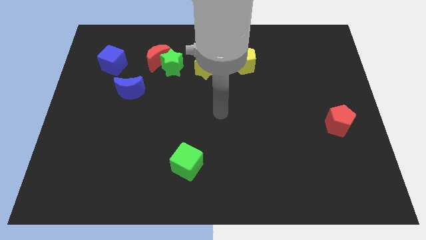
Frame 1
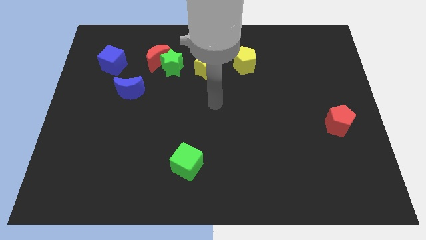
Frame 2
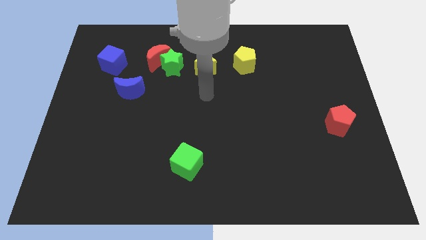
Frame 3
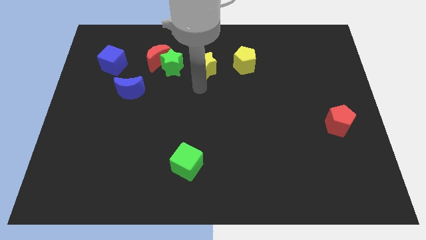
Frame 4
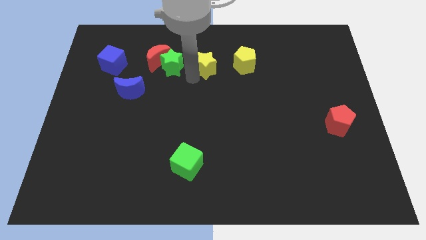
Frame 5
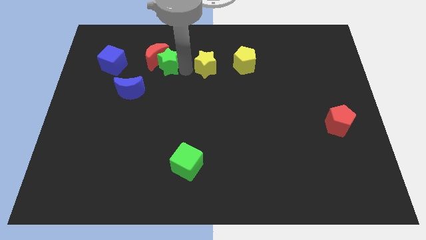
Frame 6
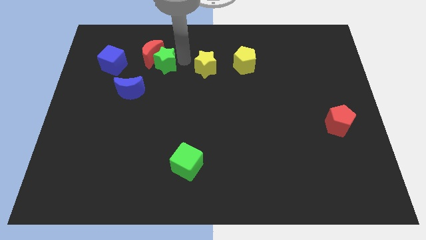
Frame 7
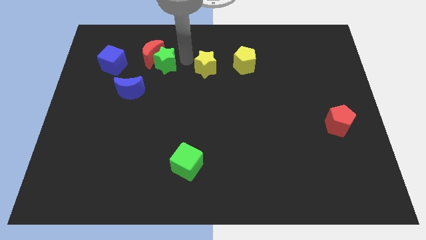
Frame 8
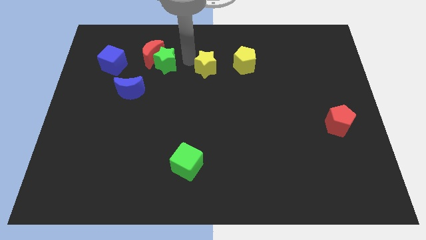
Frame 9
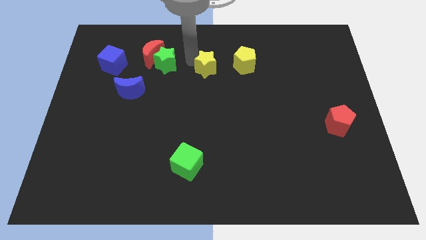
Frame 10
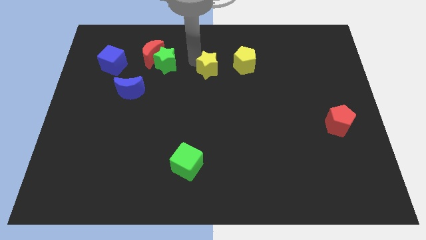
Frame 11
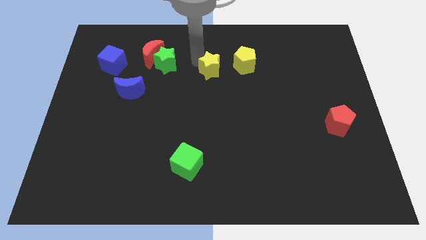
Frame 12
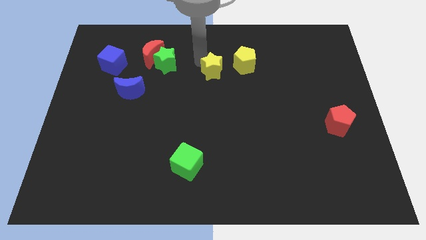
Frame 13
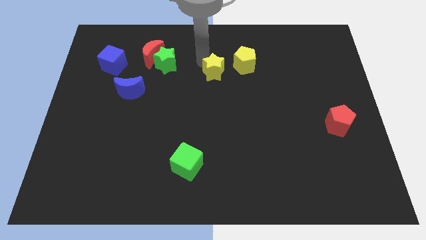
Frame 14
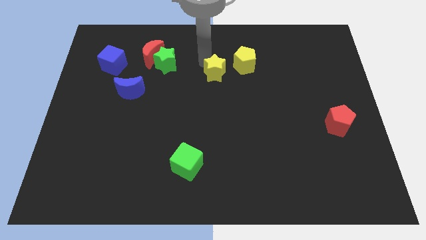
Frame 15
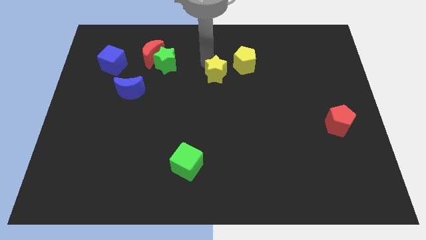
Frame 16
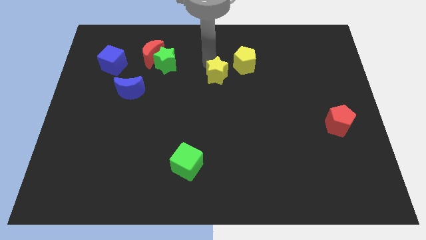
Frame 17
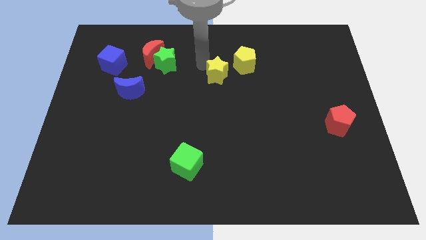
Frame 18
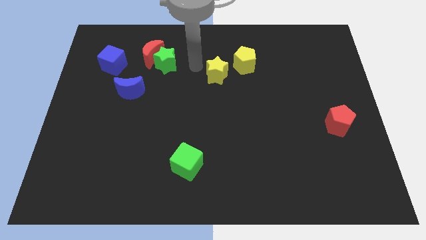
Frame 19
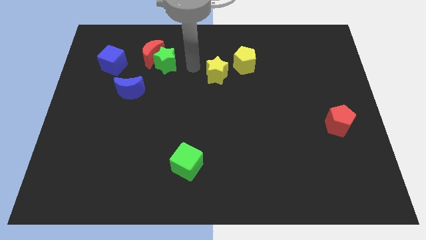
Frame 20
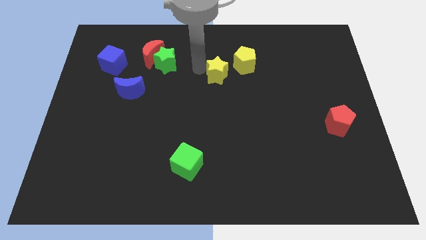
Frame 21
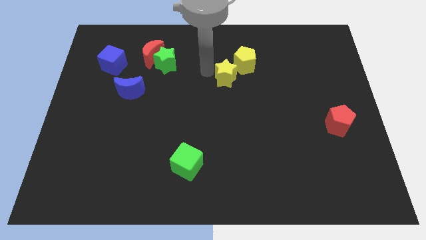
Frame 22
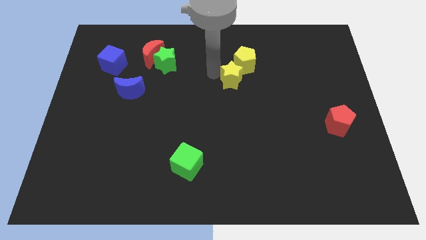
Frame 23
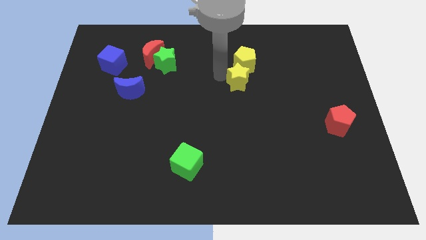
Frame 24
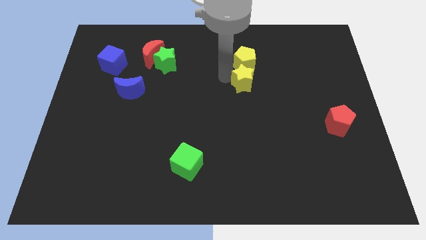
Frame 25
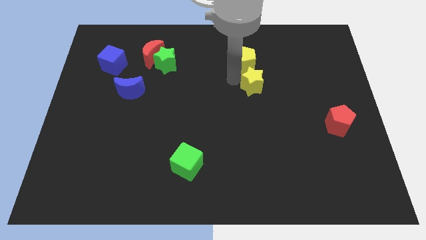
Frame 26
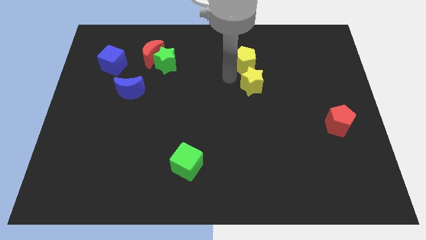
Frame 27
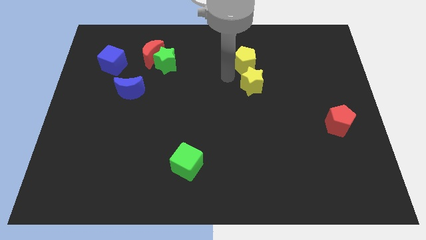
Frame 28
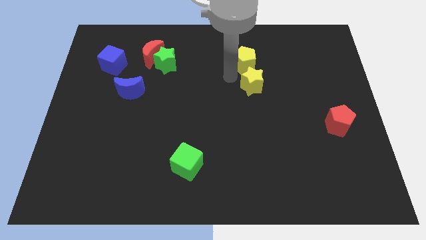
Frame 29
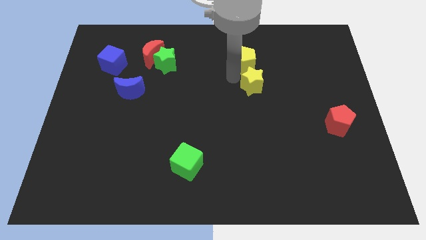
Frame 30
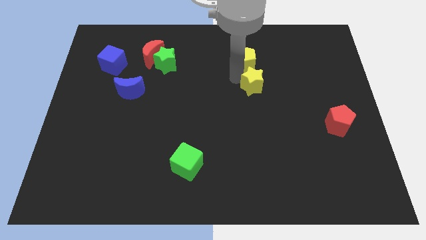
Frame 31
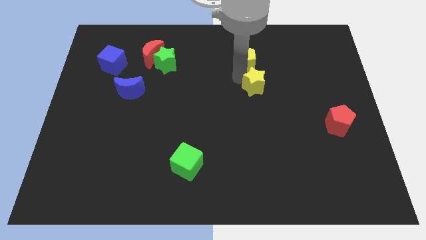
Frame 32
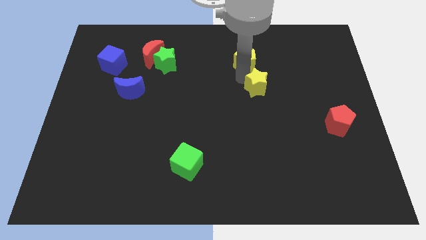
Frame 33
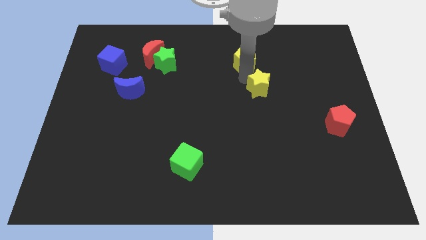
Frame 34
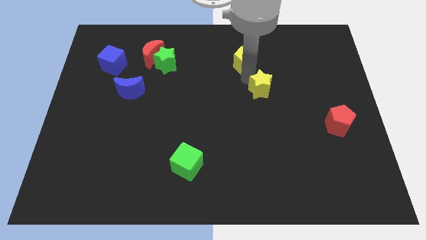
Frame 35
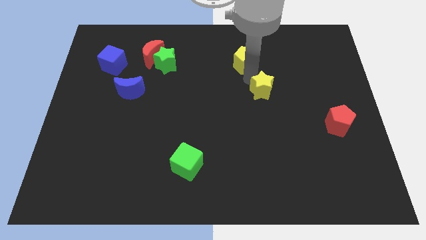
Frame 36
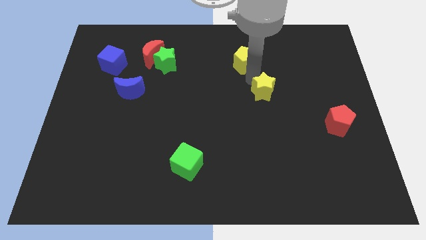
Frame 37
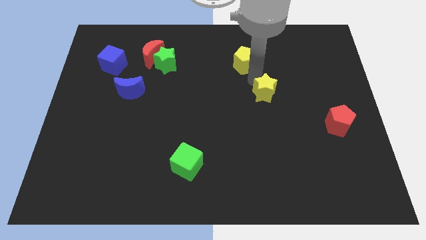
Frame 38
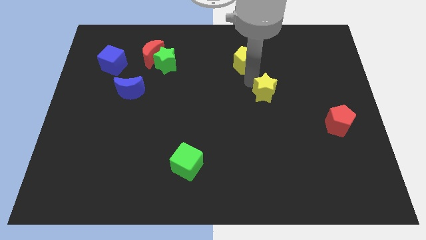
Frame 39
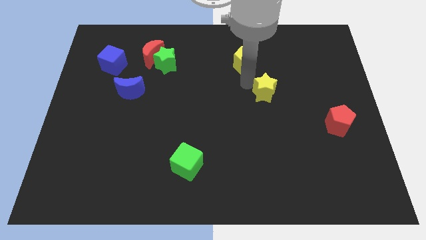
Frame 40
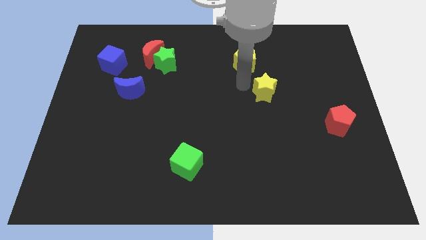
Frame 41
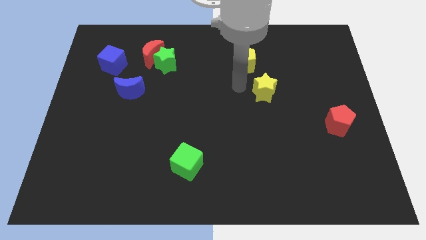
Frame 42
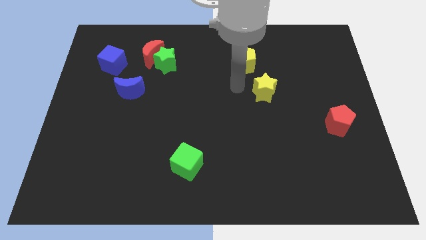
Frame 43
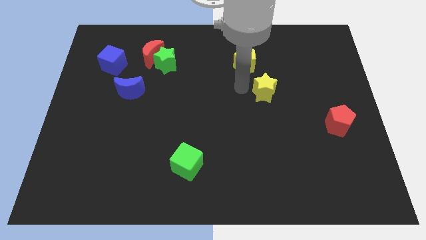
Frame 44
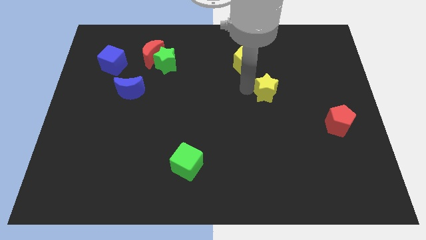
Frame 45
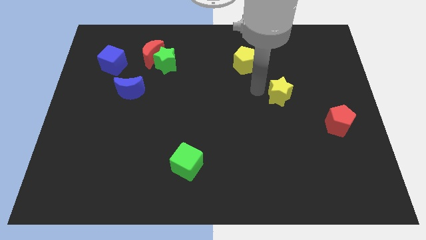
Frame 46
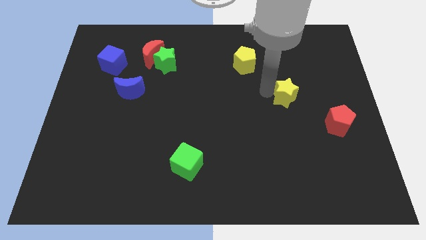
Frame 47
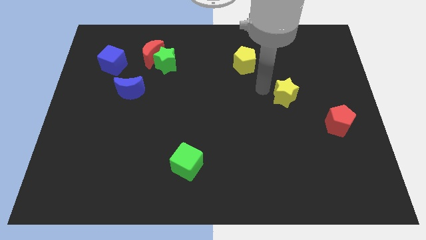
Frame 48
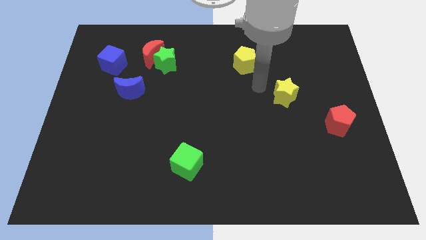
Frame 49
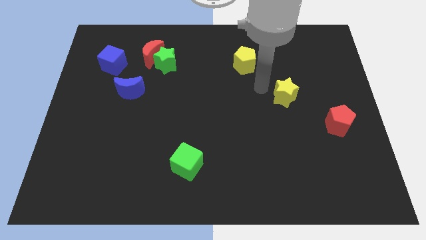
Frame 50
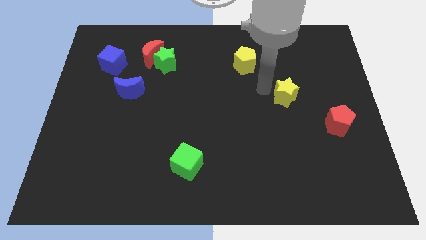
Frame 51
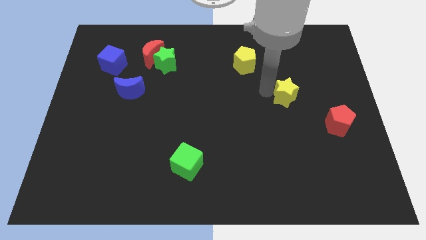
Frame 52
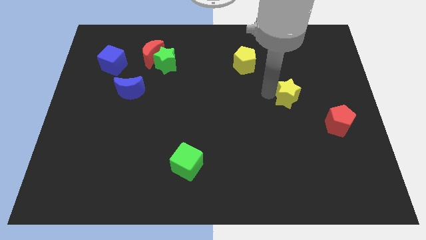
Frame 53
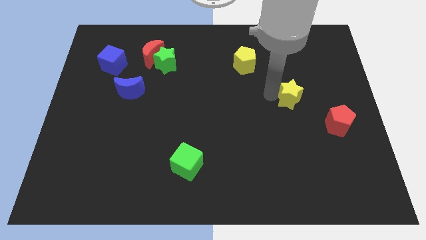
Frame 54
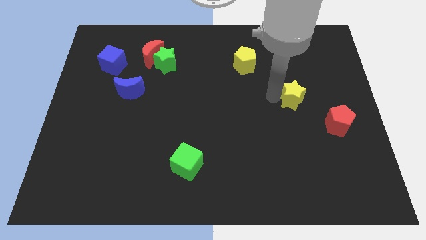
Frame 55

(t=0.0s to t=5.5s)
slide the yellow star to the top left of the red pentagon

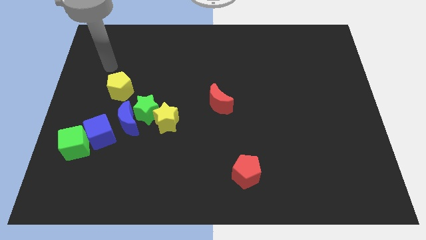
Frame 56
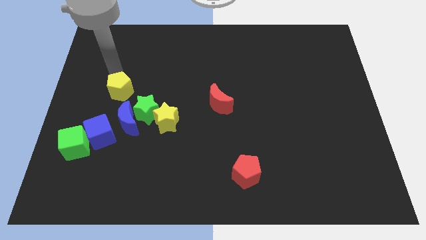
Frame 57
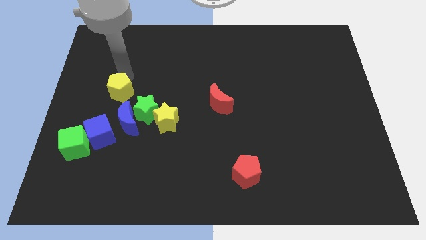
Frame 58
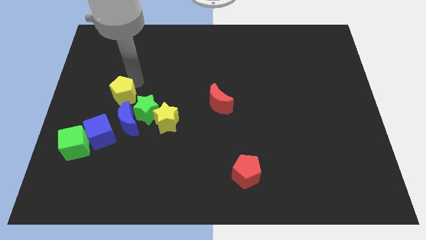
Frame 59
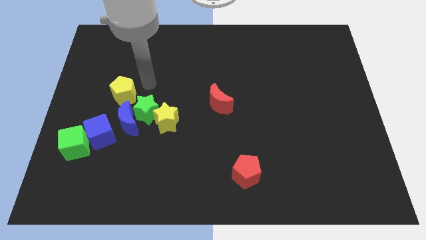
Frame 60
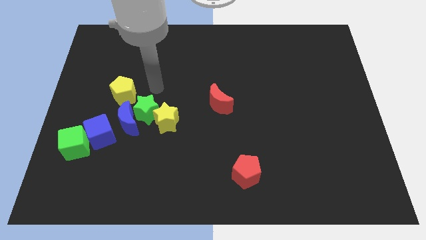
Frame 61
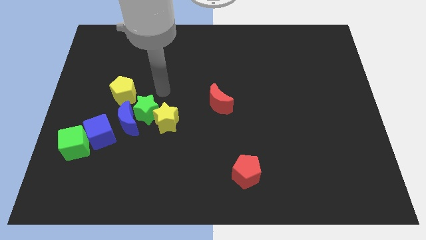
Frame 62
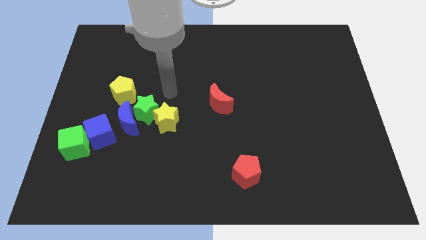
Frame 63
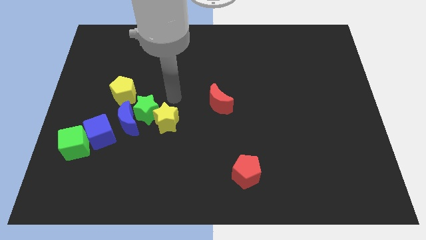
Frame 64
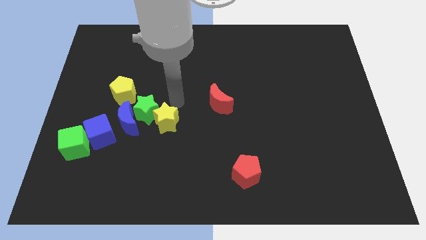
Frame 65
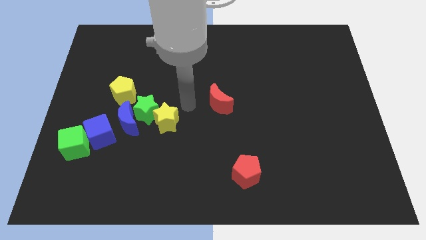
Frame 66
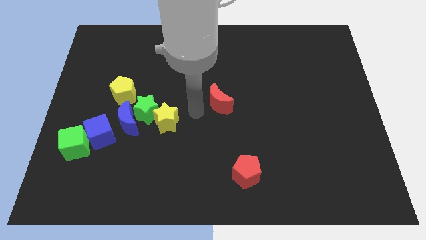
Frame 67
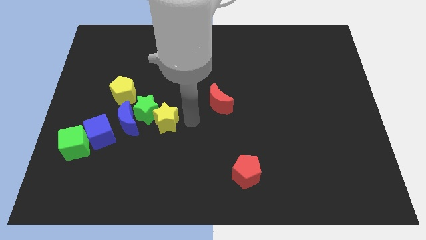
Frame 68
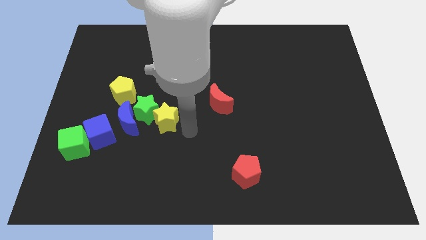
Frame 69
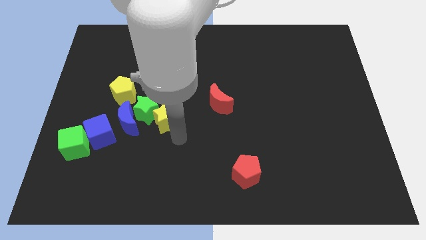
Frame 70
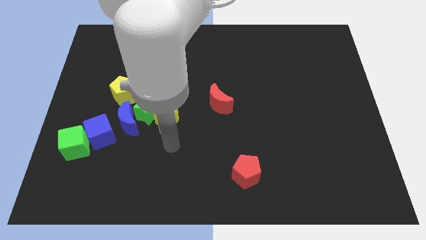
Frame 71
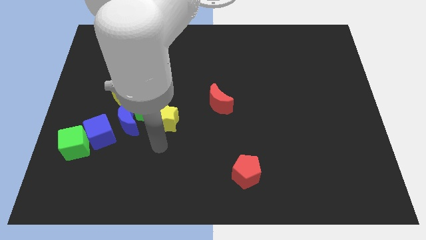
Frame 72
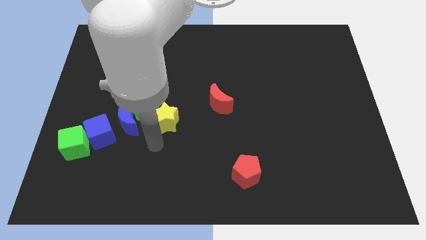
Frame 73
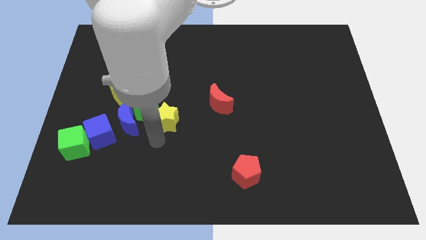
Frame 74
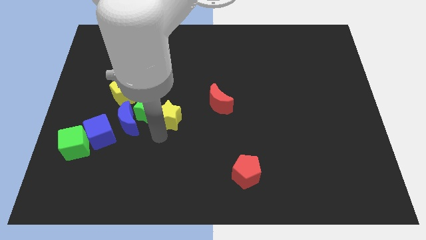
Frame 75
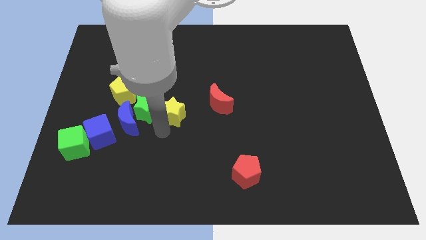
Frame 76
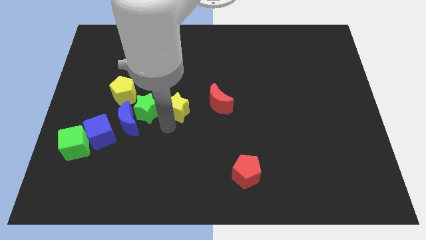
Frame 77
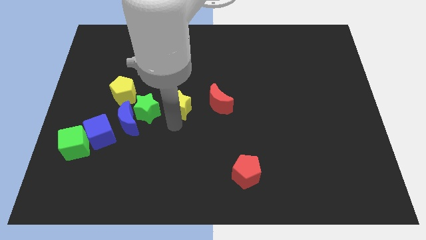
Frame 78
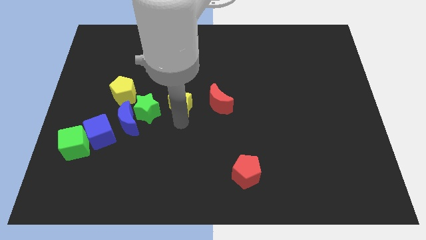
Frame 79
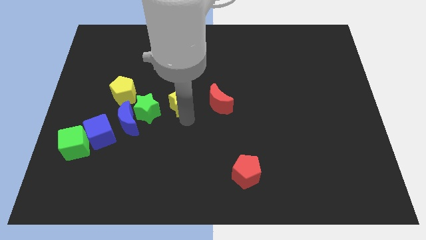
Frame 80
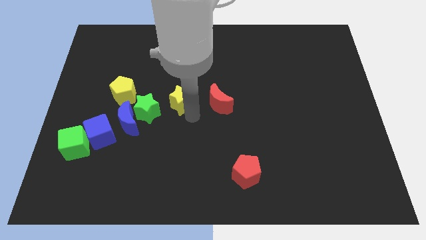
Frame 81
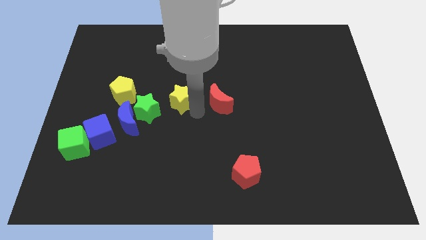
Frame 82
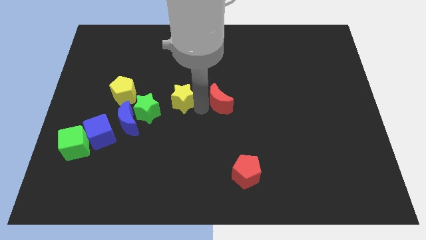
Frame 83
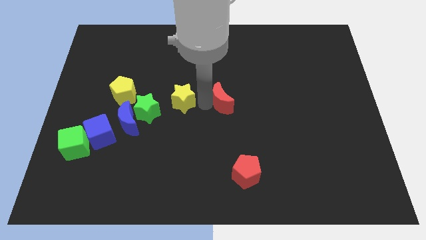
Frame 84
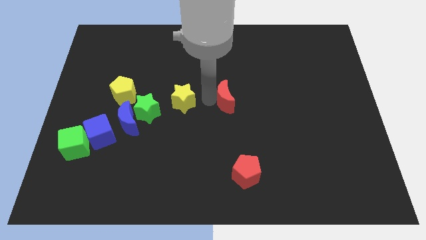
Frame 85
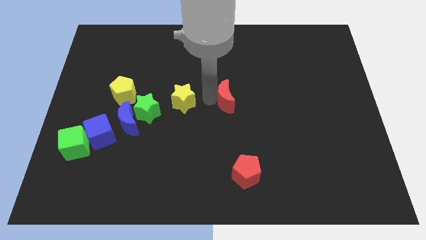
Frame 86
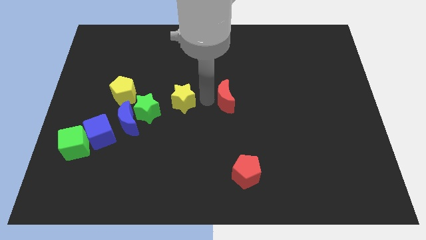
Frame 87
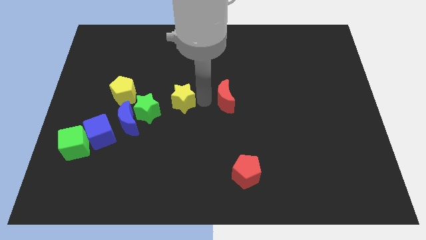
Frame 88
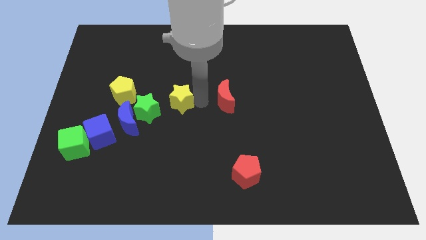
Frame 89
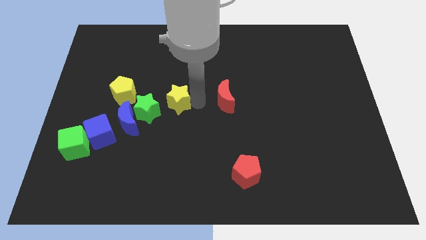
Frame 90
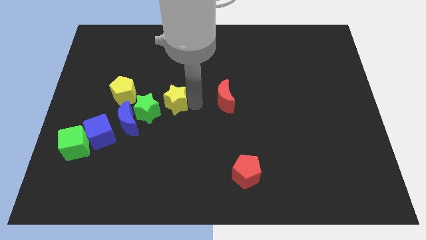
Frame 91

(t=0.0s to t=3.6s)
push the yellow star to the top right side of the blue moon
